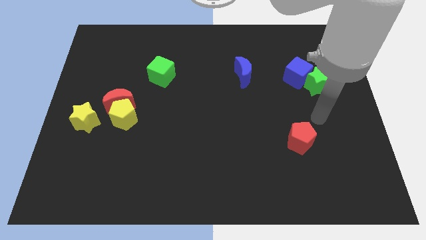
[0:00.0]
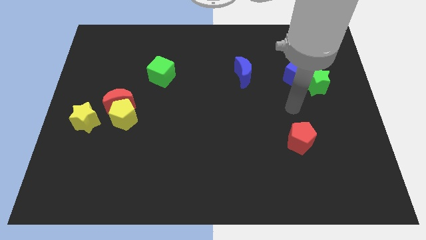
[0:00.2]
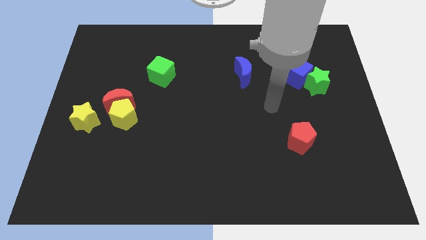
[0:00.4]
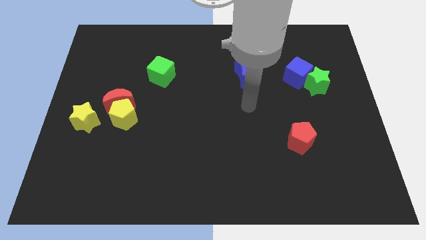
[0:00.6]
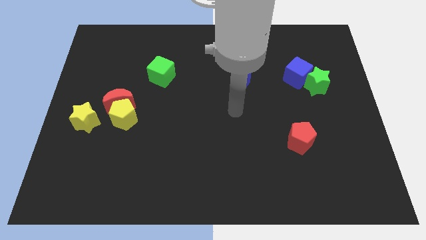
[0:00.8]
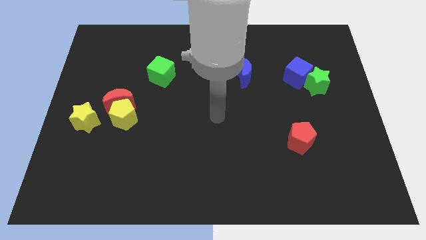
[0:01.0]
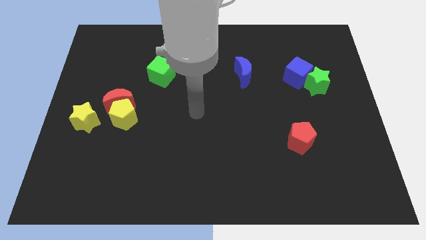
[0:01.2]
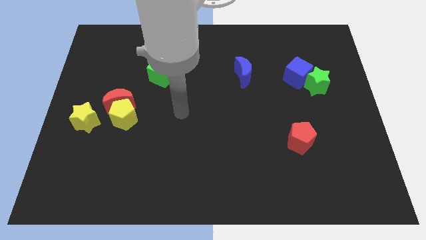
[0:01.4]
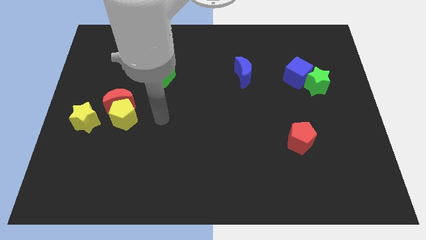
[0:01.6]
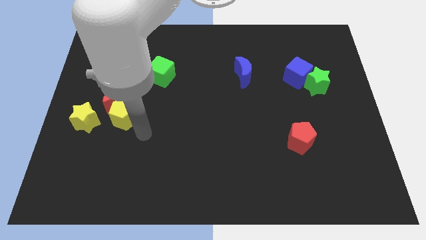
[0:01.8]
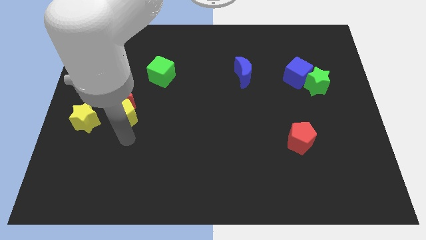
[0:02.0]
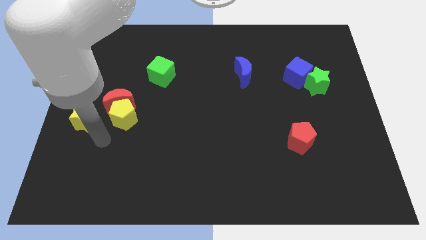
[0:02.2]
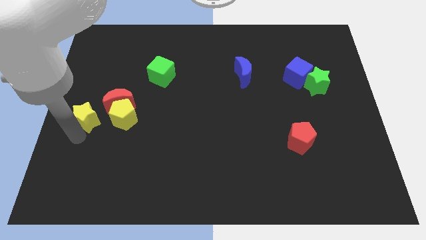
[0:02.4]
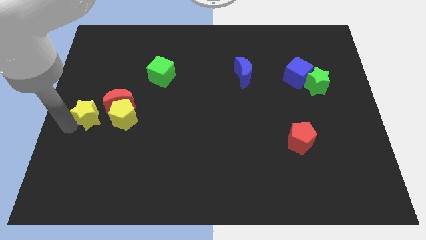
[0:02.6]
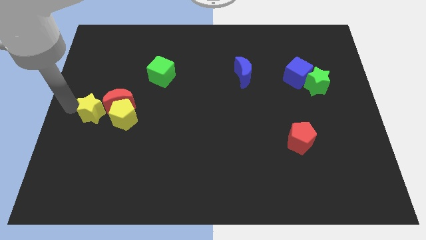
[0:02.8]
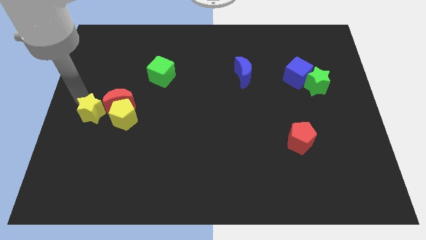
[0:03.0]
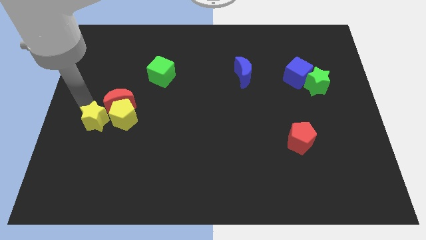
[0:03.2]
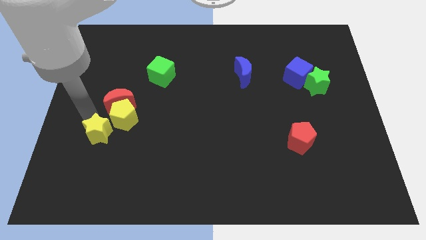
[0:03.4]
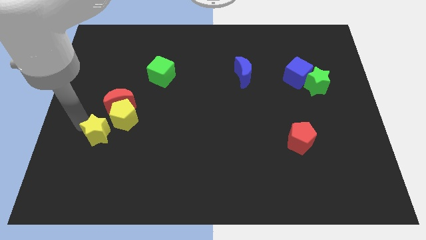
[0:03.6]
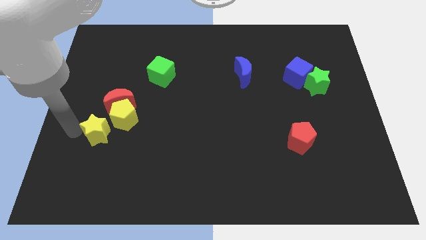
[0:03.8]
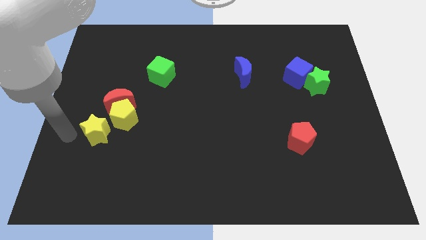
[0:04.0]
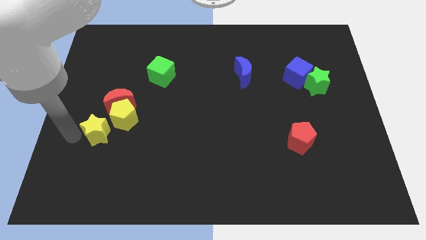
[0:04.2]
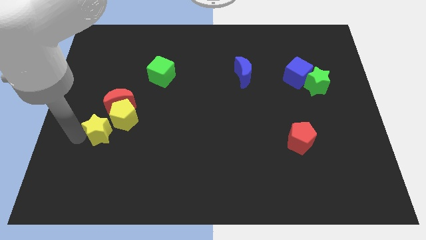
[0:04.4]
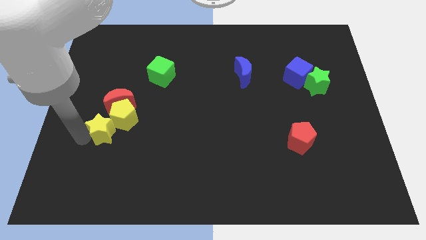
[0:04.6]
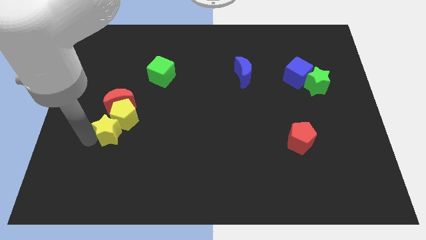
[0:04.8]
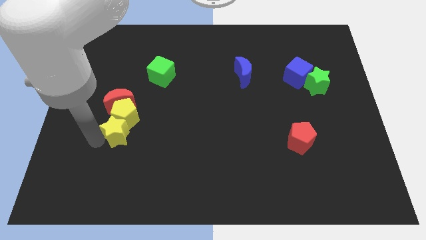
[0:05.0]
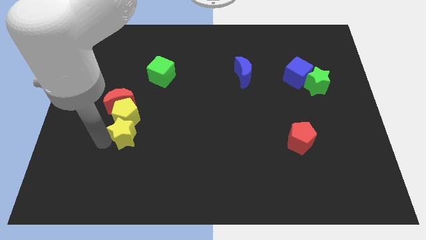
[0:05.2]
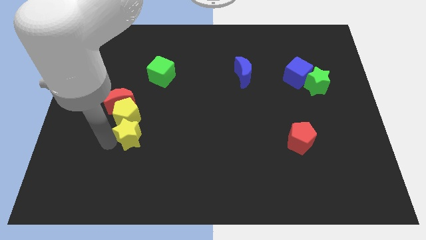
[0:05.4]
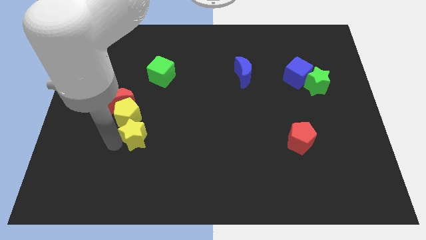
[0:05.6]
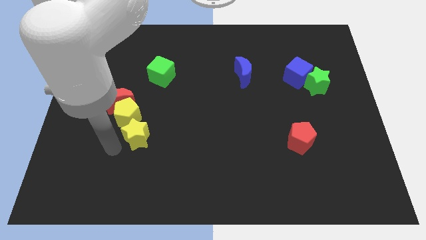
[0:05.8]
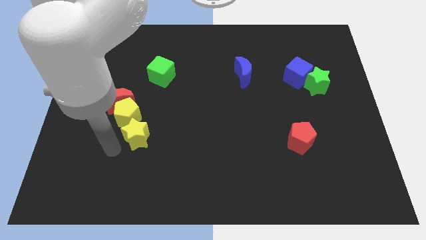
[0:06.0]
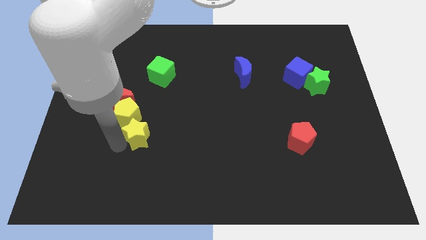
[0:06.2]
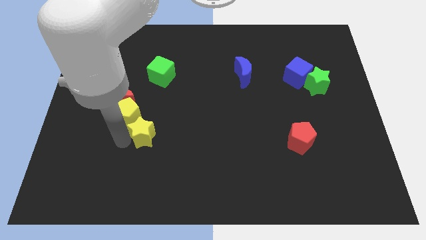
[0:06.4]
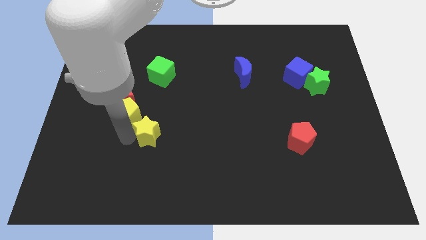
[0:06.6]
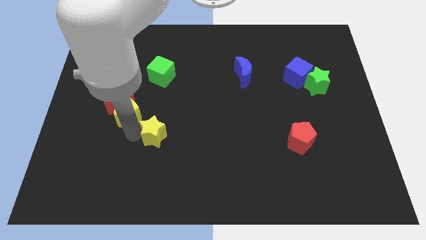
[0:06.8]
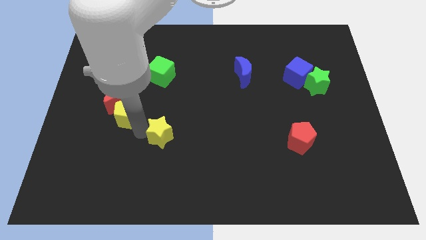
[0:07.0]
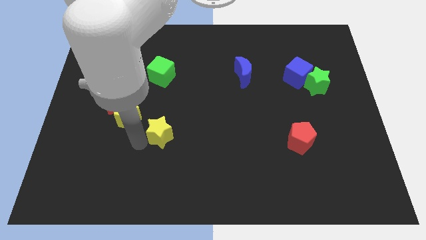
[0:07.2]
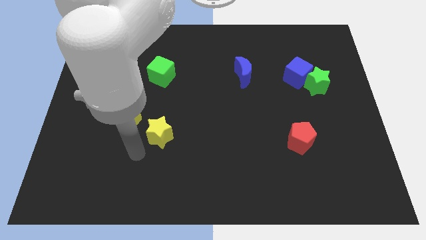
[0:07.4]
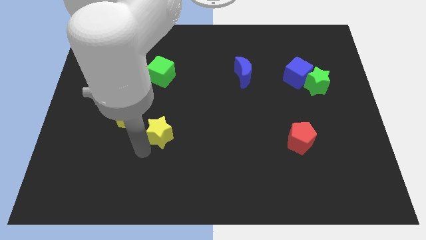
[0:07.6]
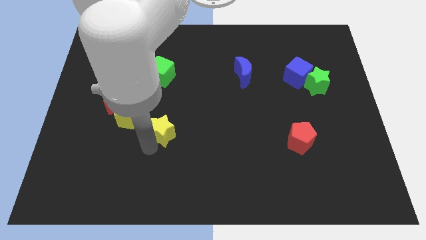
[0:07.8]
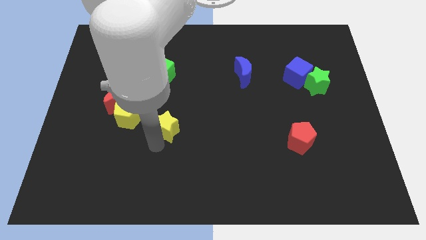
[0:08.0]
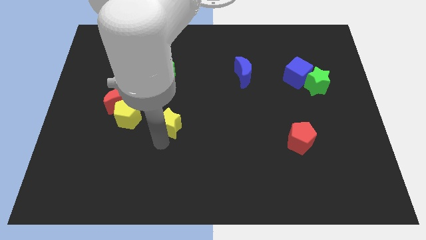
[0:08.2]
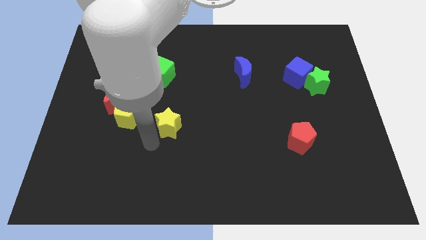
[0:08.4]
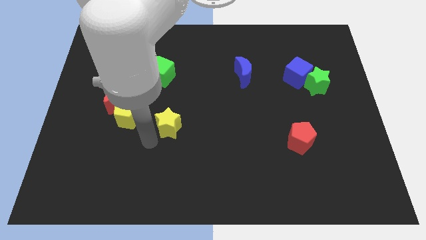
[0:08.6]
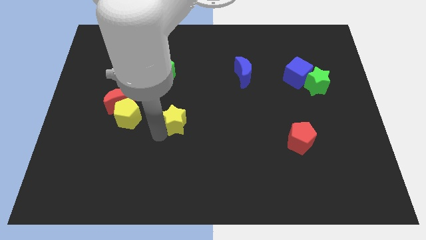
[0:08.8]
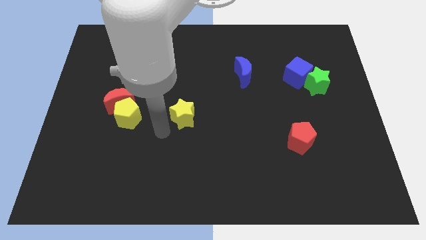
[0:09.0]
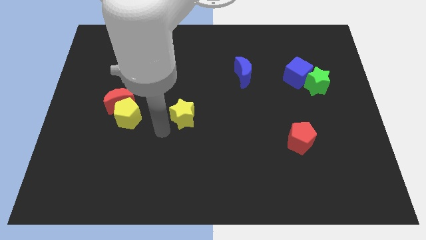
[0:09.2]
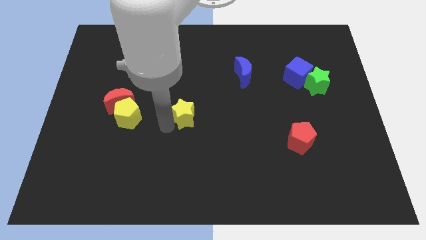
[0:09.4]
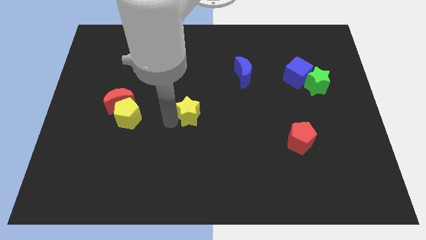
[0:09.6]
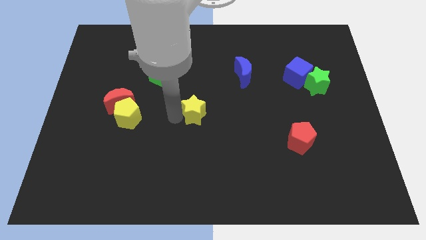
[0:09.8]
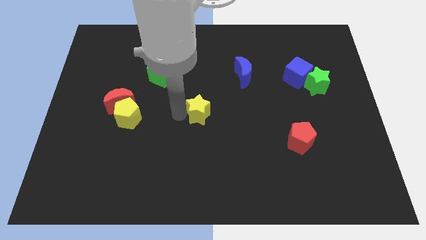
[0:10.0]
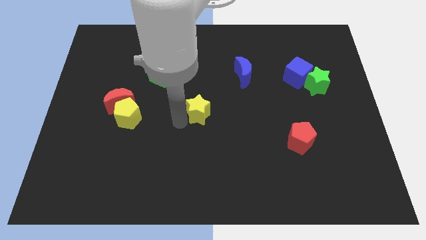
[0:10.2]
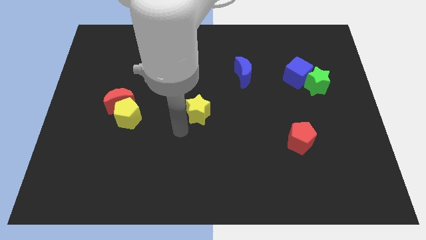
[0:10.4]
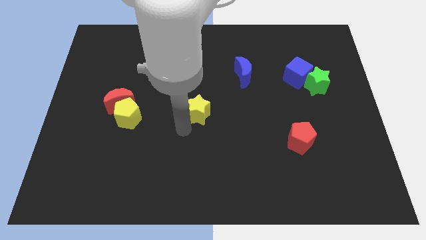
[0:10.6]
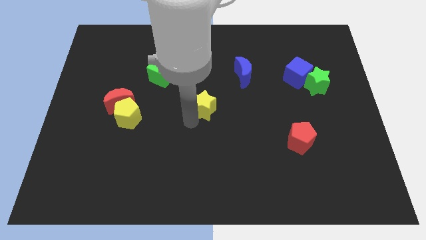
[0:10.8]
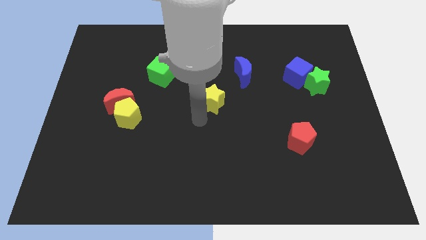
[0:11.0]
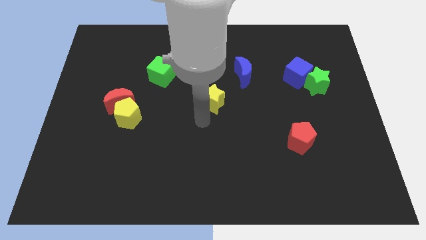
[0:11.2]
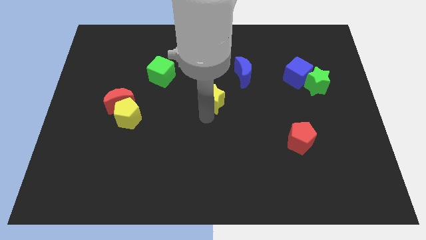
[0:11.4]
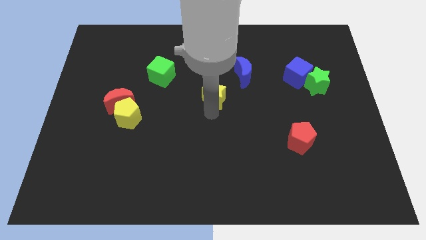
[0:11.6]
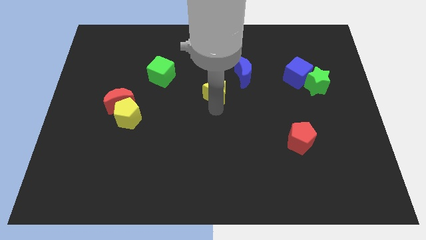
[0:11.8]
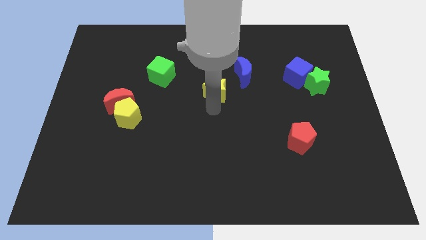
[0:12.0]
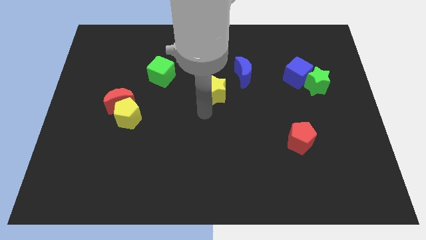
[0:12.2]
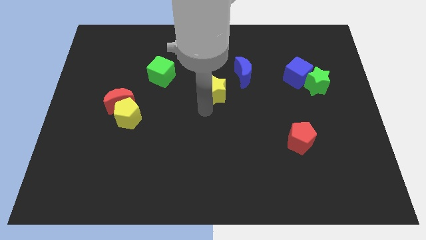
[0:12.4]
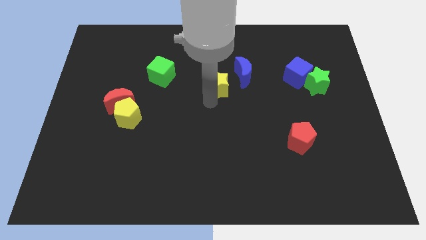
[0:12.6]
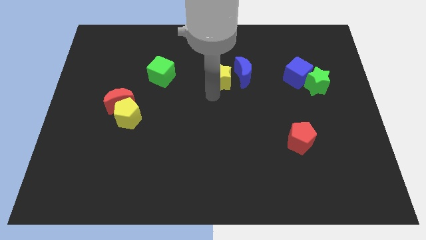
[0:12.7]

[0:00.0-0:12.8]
move the yellow star next to the blue moon

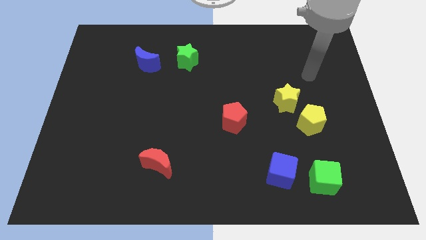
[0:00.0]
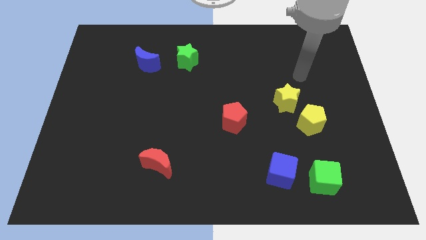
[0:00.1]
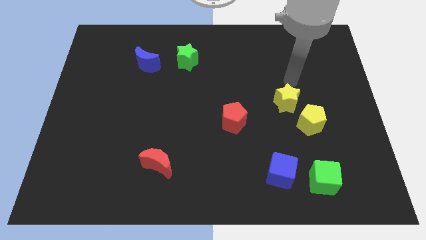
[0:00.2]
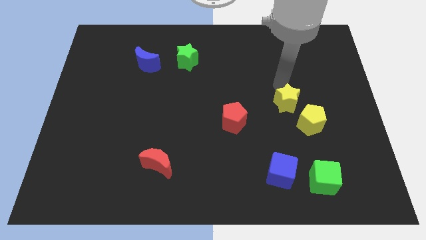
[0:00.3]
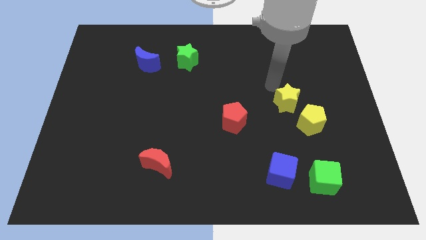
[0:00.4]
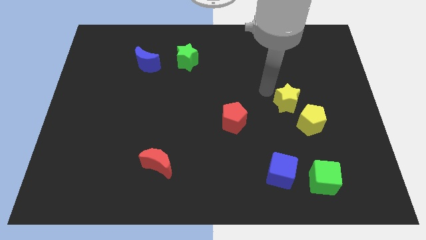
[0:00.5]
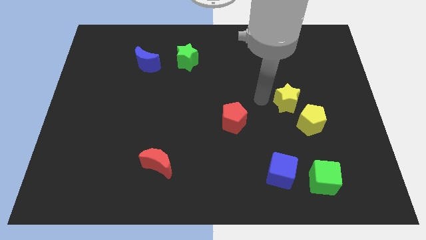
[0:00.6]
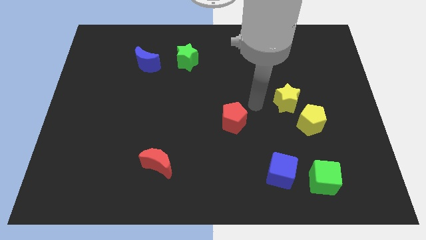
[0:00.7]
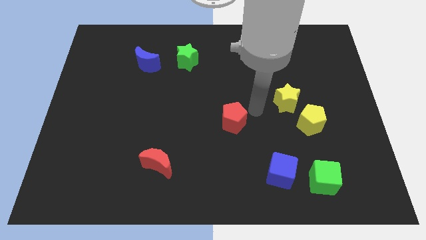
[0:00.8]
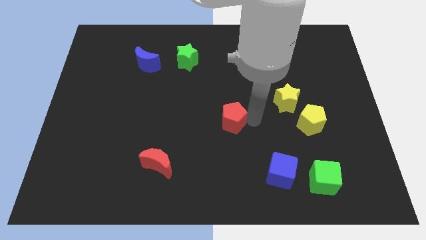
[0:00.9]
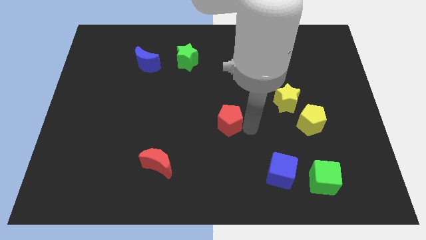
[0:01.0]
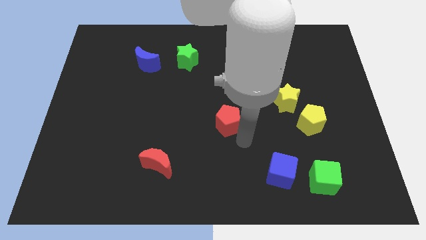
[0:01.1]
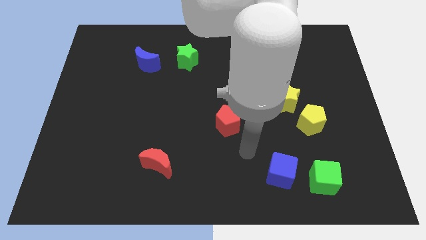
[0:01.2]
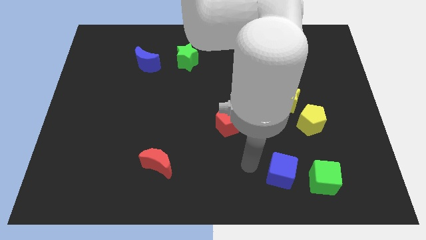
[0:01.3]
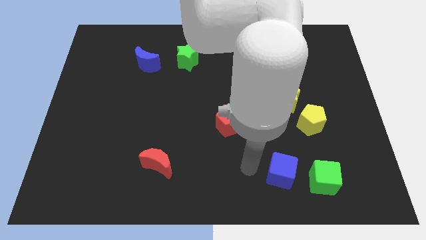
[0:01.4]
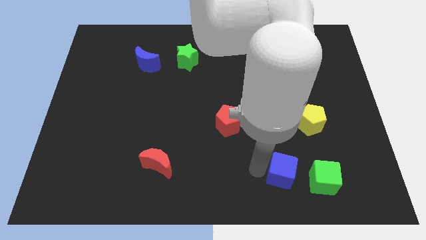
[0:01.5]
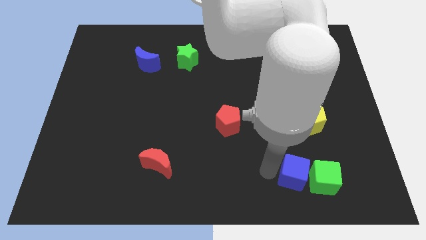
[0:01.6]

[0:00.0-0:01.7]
put the blue cube to the green cube
